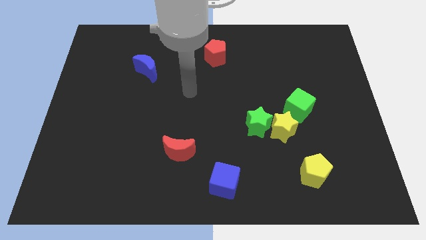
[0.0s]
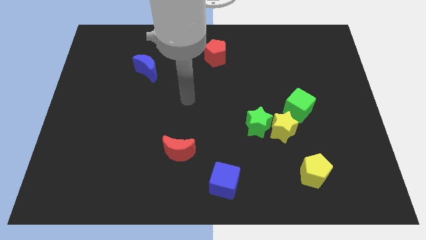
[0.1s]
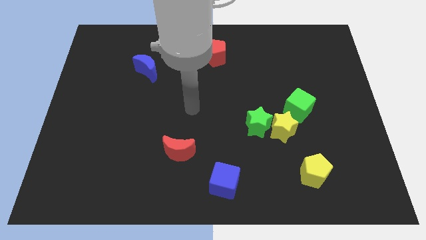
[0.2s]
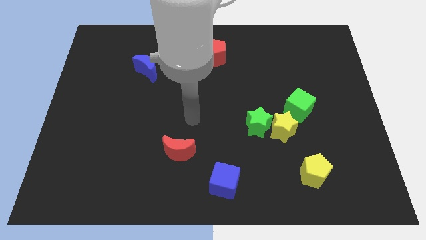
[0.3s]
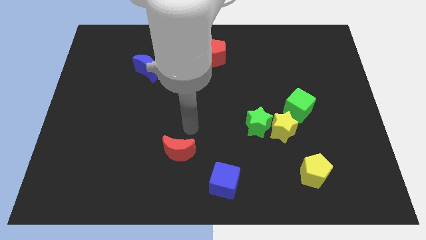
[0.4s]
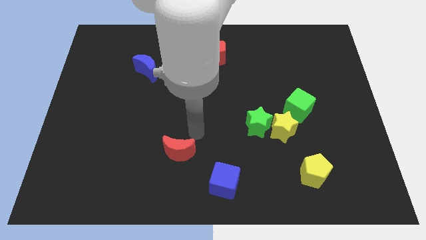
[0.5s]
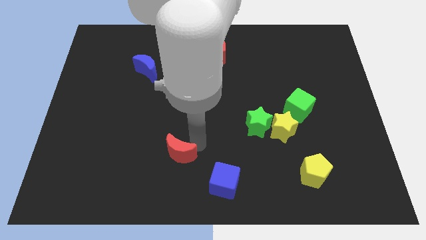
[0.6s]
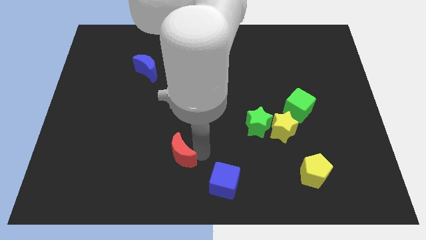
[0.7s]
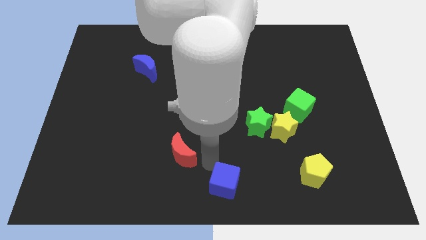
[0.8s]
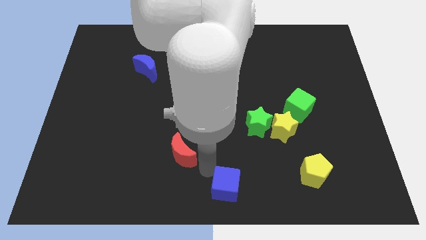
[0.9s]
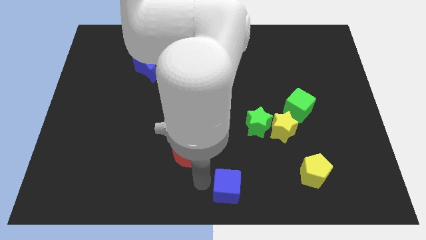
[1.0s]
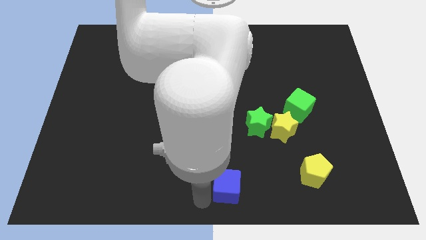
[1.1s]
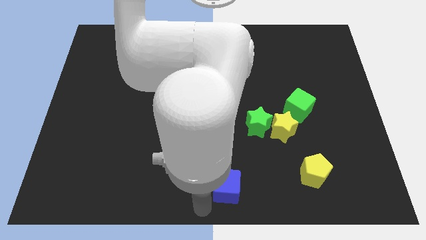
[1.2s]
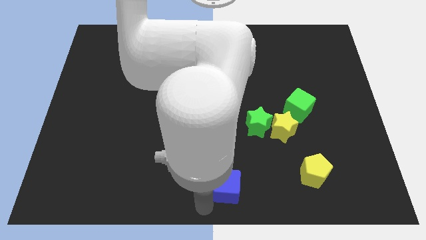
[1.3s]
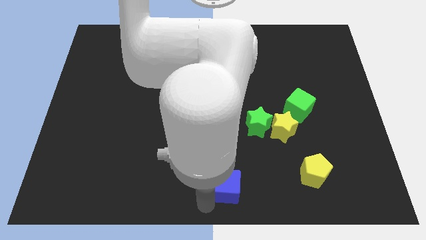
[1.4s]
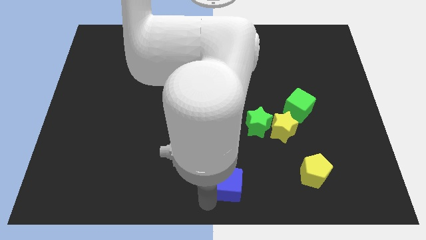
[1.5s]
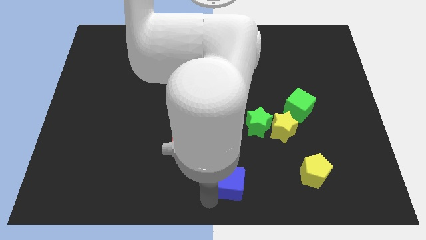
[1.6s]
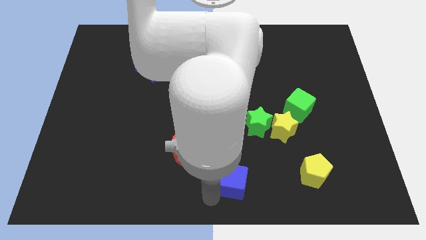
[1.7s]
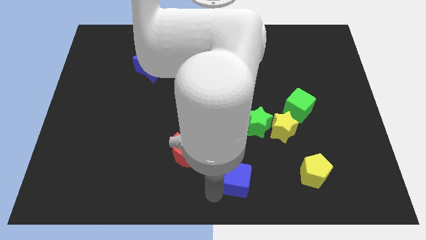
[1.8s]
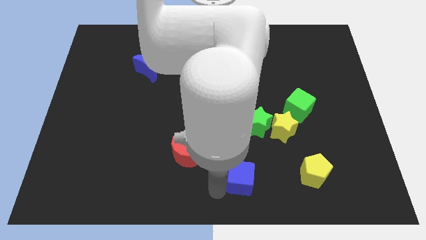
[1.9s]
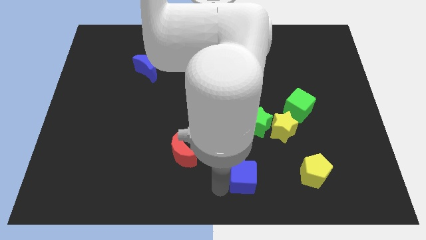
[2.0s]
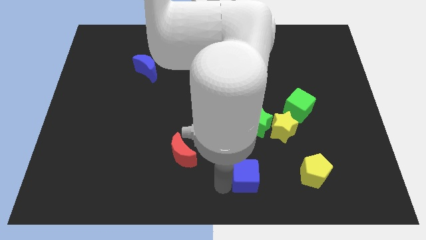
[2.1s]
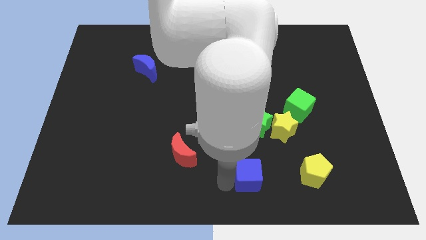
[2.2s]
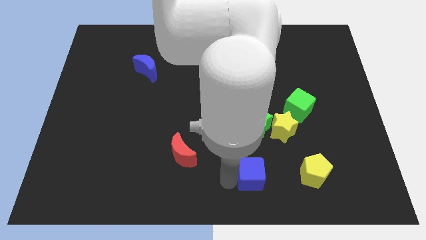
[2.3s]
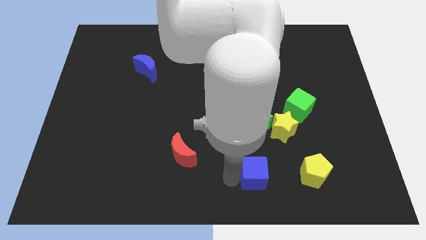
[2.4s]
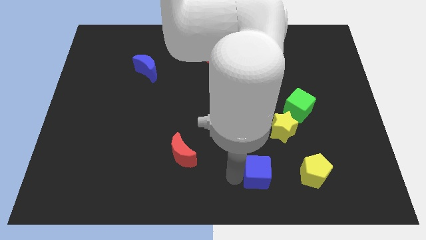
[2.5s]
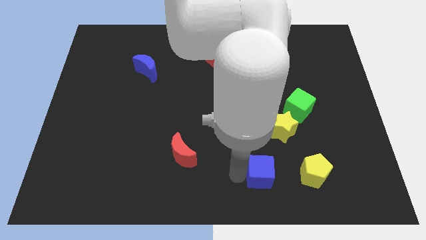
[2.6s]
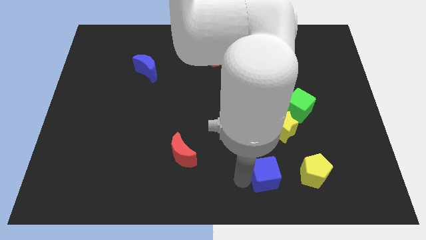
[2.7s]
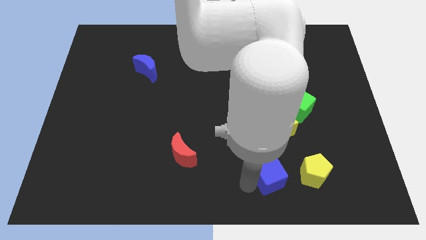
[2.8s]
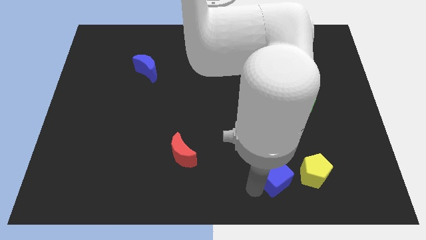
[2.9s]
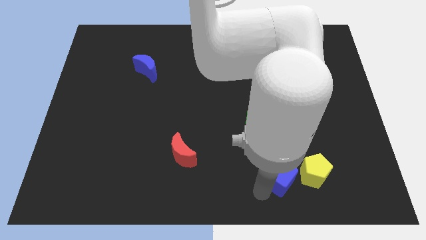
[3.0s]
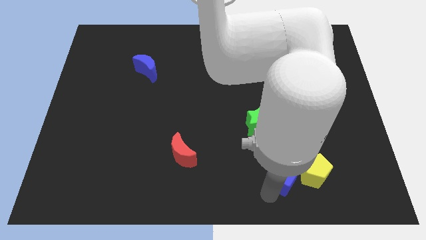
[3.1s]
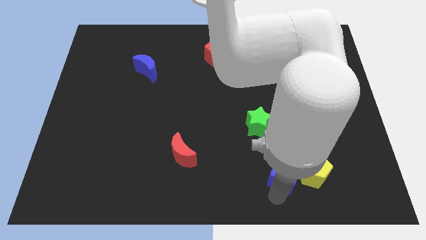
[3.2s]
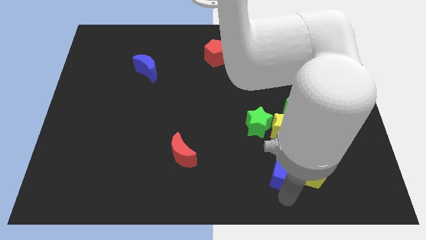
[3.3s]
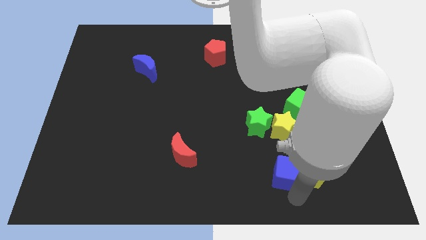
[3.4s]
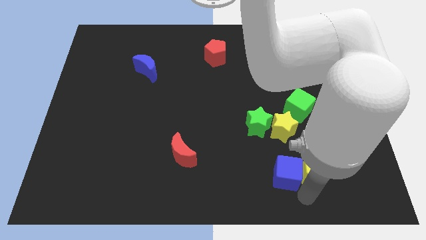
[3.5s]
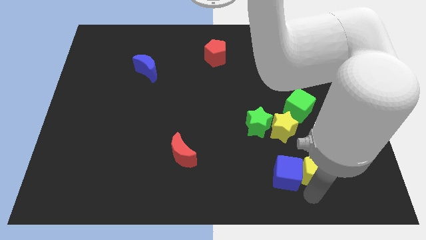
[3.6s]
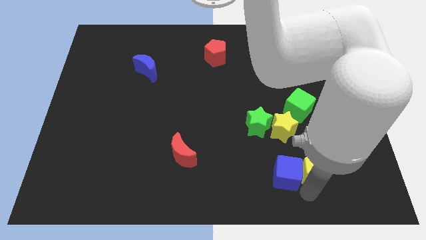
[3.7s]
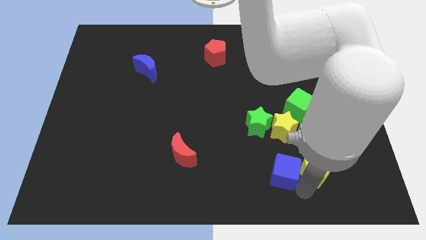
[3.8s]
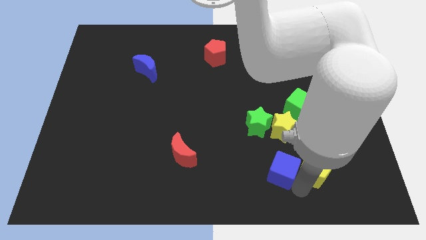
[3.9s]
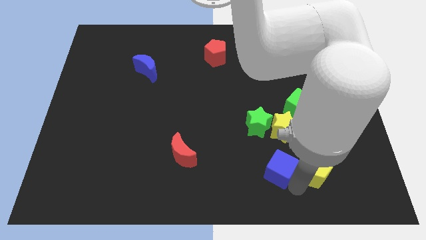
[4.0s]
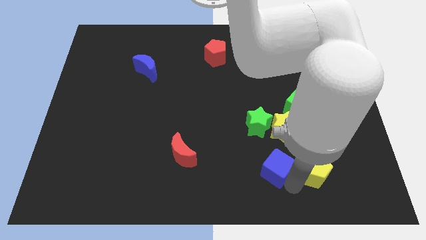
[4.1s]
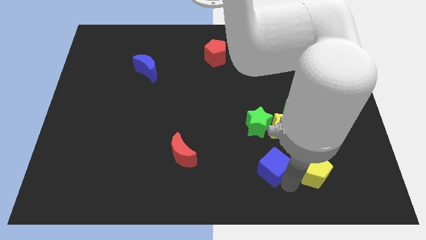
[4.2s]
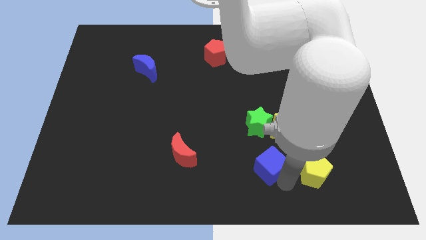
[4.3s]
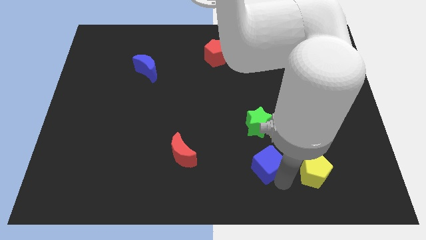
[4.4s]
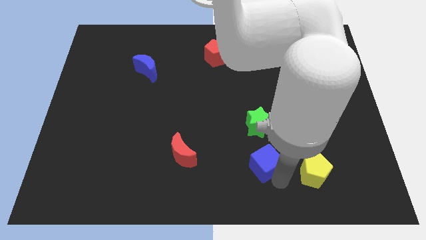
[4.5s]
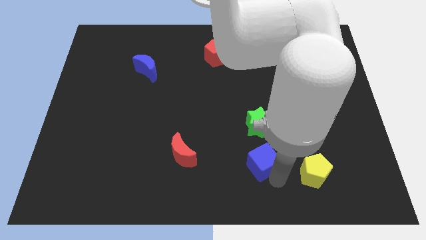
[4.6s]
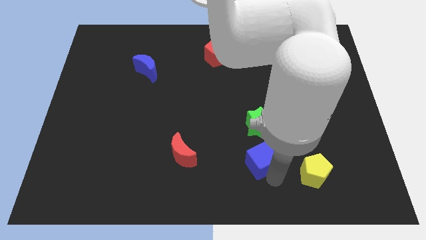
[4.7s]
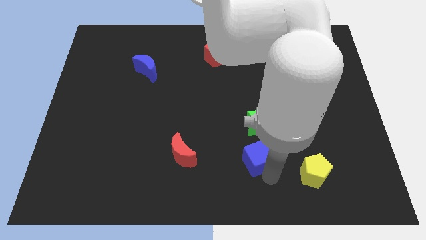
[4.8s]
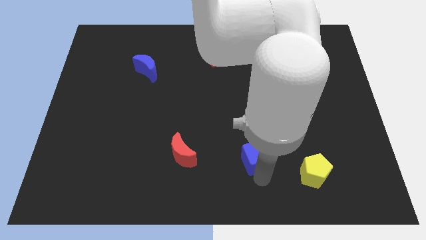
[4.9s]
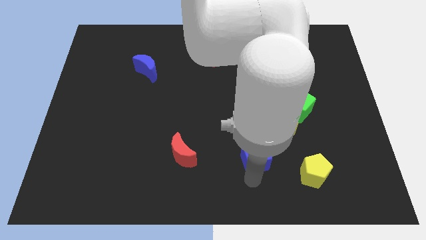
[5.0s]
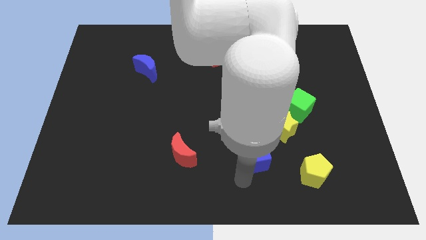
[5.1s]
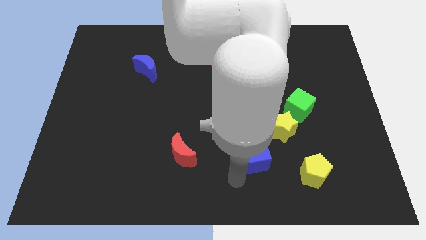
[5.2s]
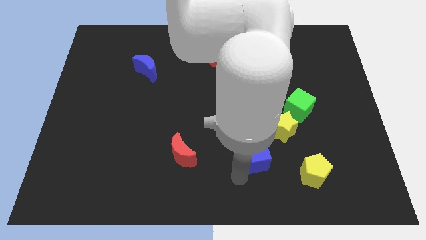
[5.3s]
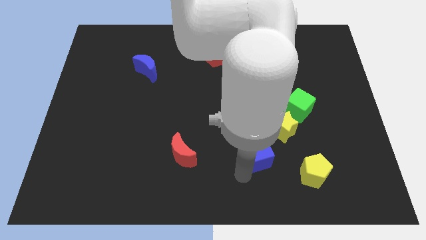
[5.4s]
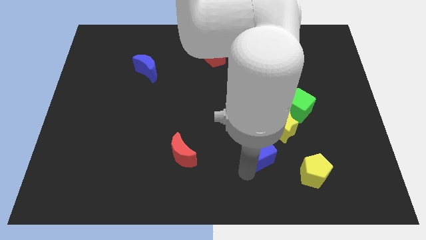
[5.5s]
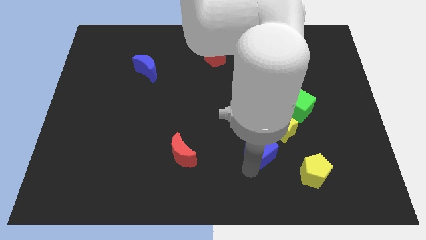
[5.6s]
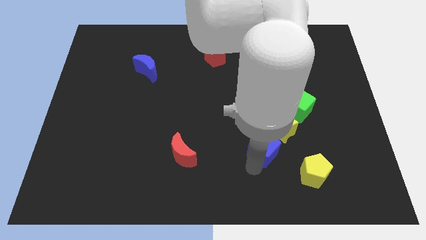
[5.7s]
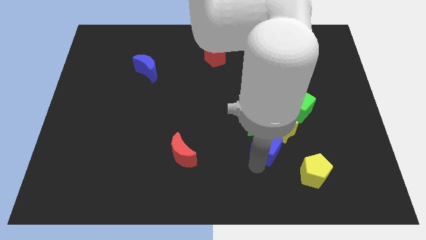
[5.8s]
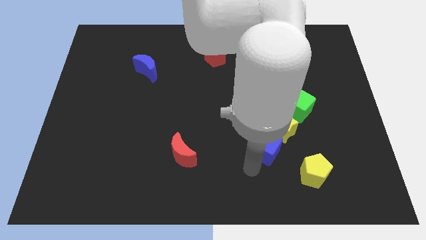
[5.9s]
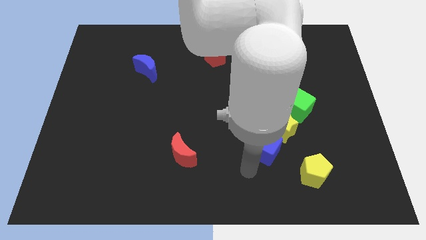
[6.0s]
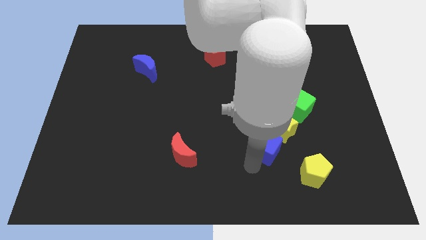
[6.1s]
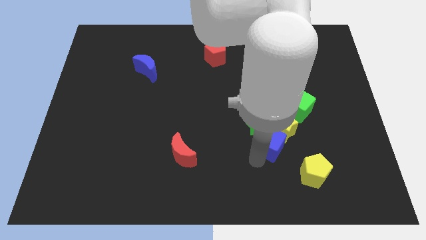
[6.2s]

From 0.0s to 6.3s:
push the blue cube towards the yellow star

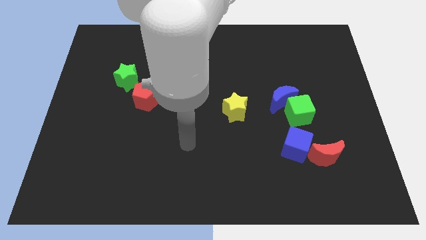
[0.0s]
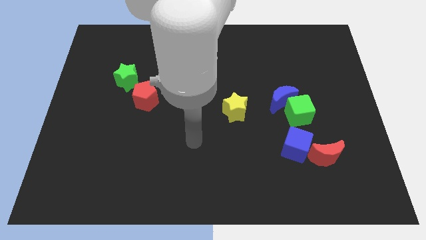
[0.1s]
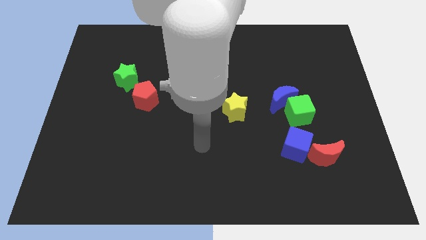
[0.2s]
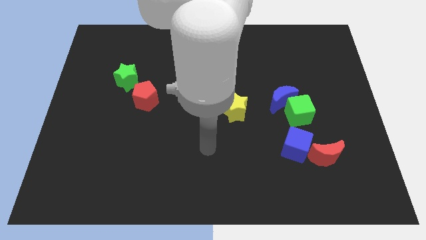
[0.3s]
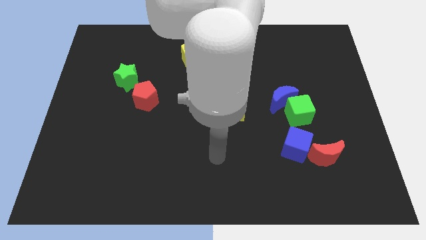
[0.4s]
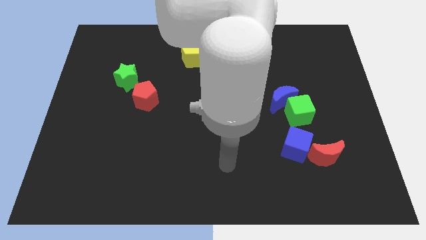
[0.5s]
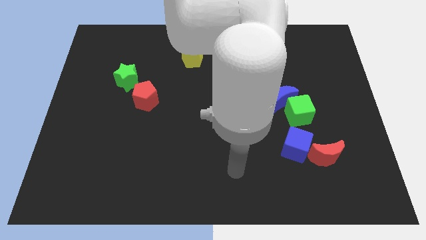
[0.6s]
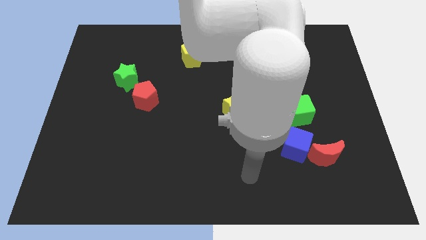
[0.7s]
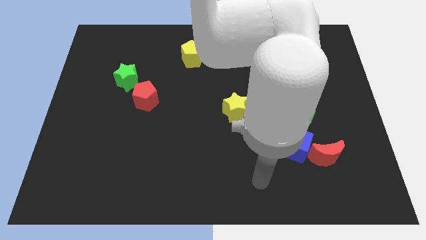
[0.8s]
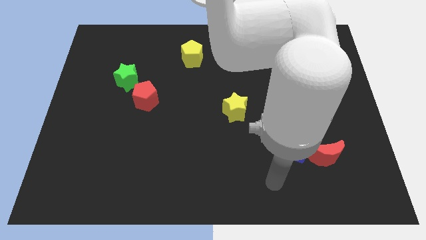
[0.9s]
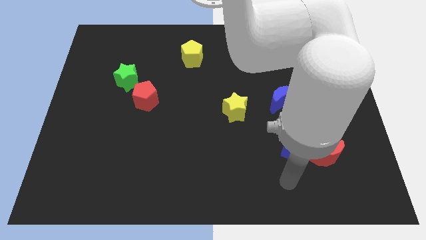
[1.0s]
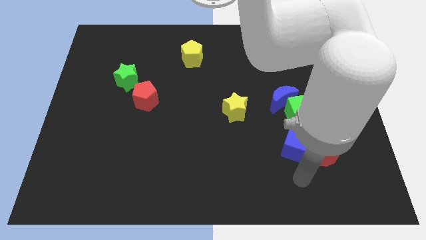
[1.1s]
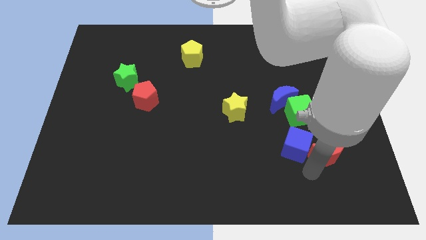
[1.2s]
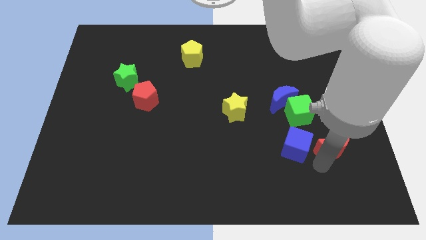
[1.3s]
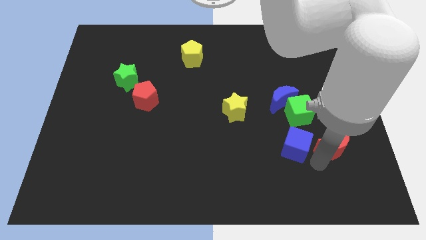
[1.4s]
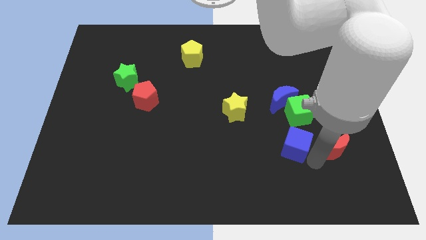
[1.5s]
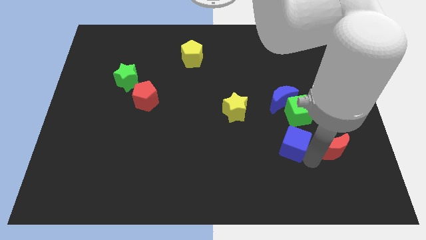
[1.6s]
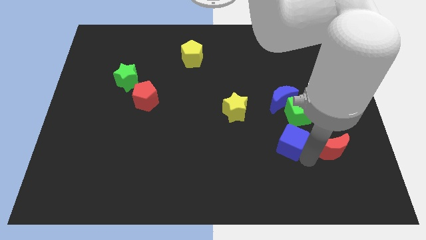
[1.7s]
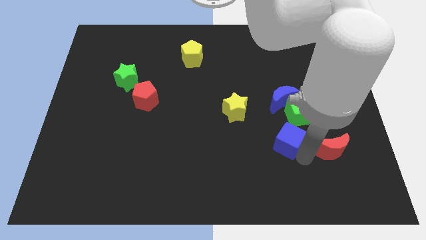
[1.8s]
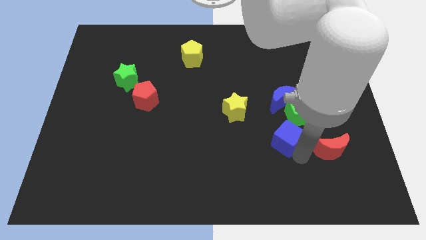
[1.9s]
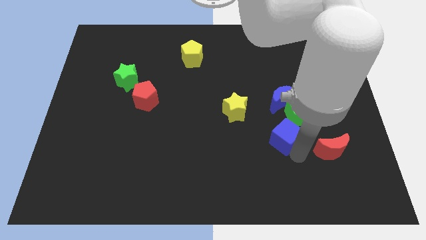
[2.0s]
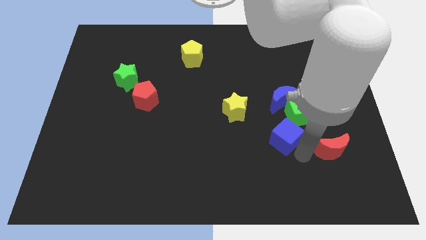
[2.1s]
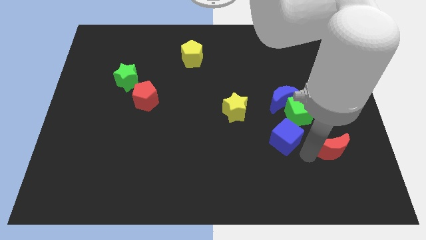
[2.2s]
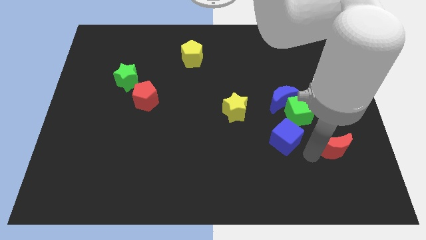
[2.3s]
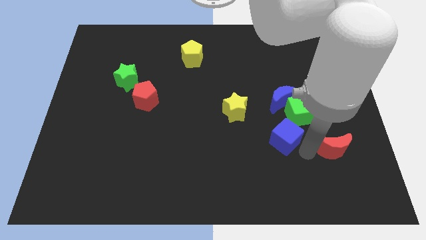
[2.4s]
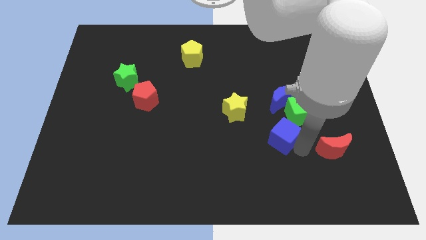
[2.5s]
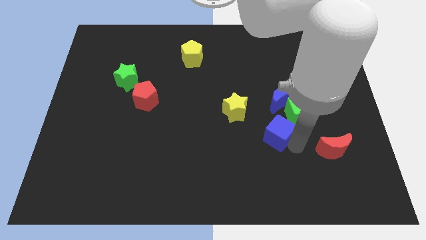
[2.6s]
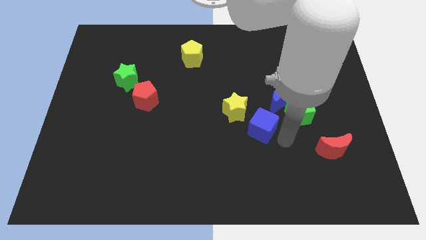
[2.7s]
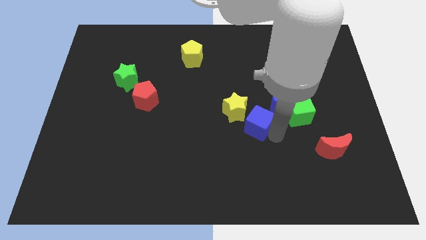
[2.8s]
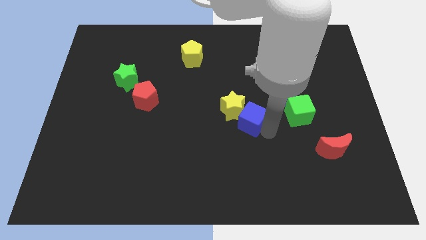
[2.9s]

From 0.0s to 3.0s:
push the blue cube next to the yellow star
